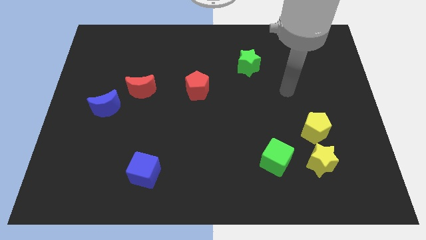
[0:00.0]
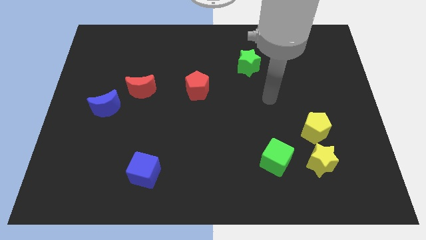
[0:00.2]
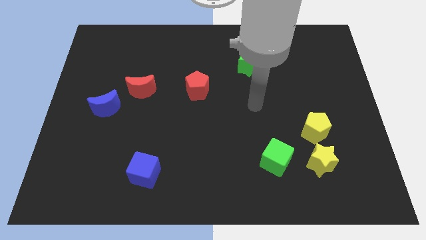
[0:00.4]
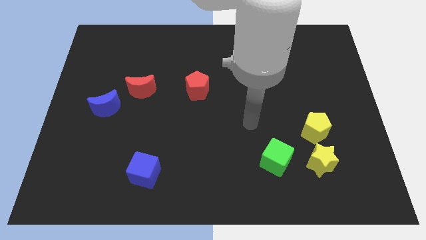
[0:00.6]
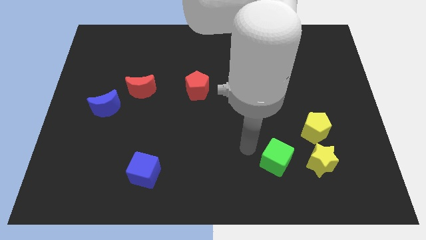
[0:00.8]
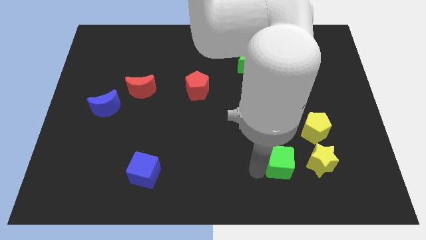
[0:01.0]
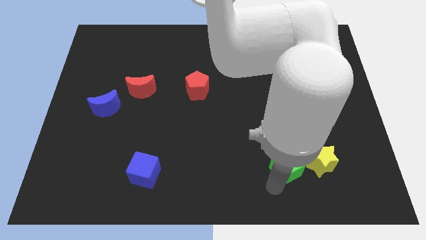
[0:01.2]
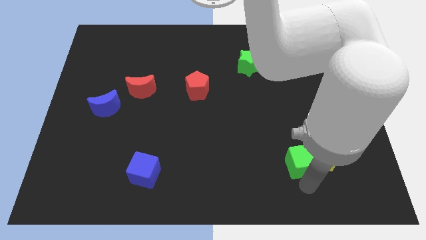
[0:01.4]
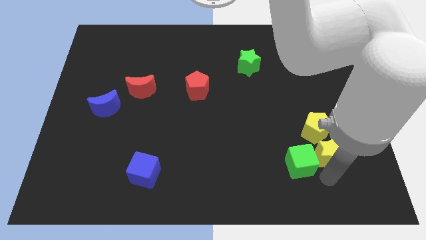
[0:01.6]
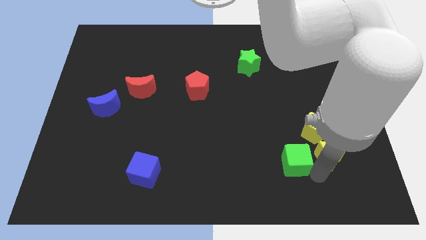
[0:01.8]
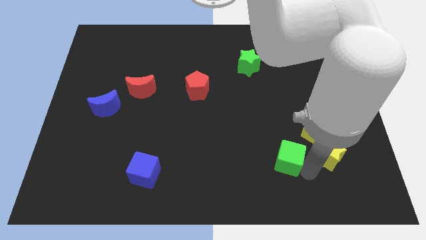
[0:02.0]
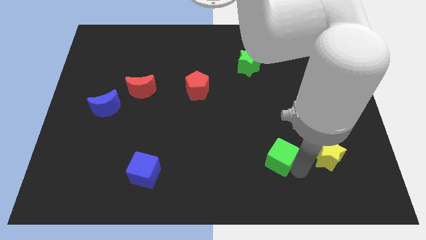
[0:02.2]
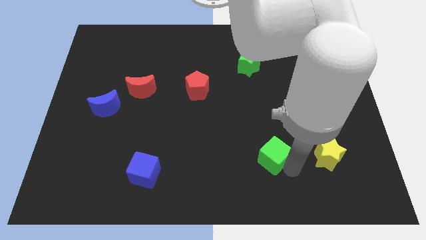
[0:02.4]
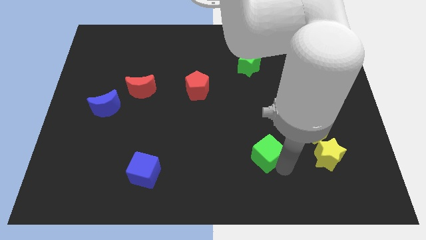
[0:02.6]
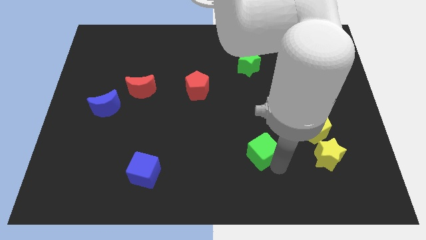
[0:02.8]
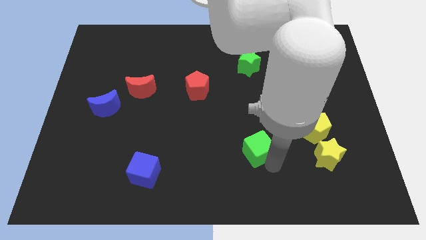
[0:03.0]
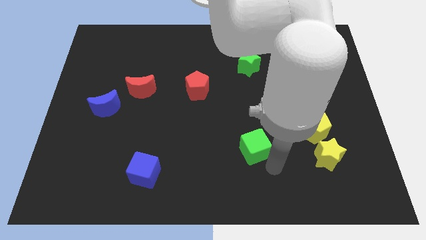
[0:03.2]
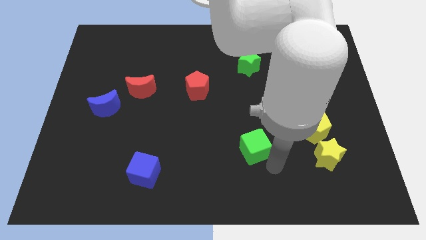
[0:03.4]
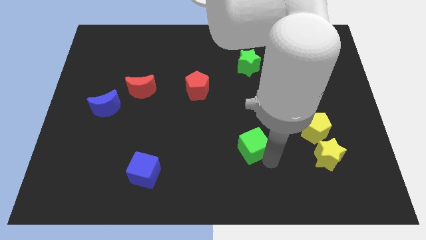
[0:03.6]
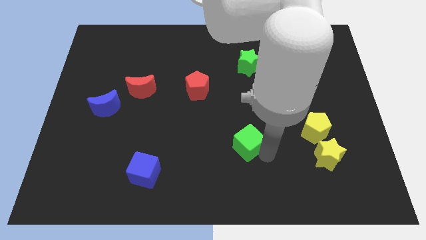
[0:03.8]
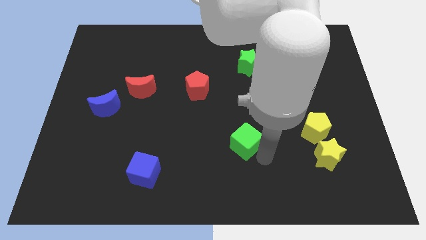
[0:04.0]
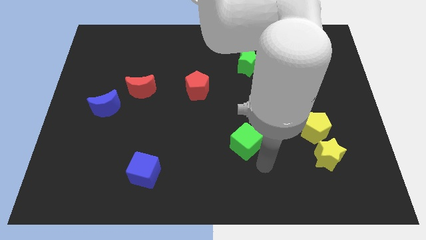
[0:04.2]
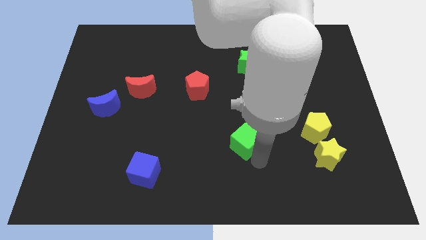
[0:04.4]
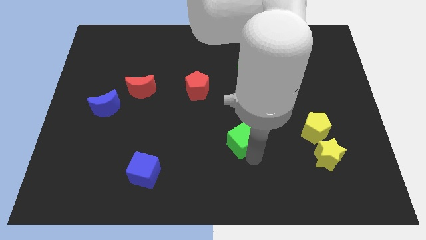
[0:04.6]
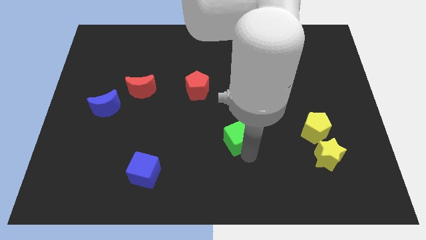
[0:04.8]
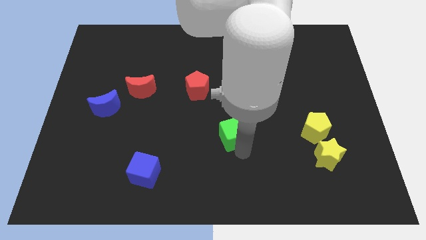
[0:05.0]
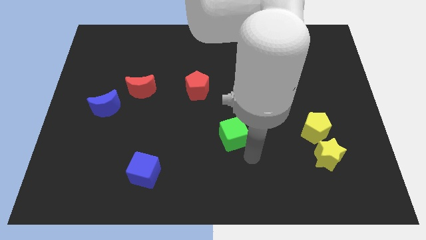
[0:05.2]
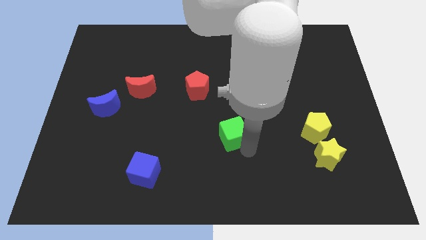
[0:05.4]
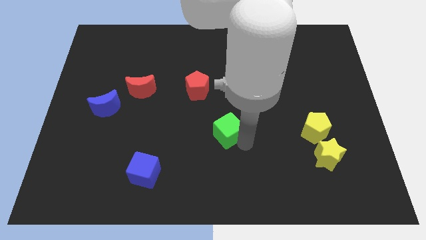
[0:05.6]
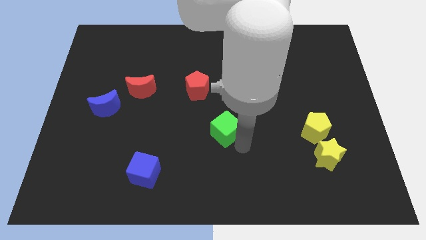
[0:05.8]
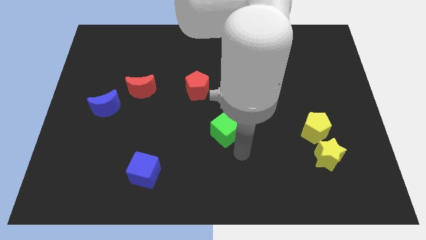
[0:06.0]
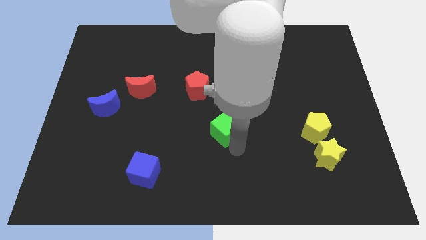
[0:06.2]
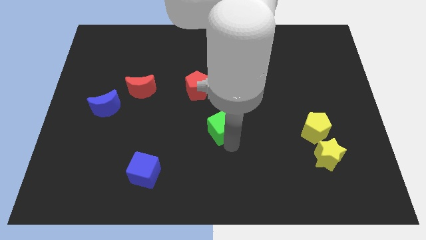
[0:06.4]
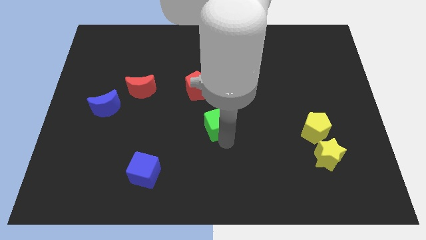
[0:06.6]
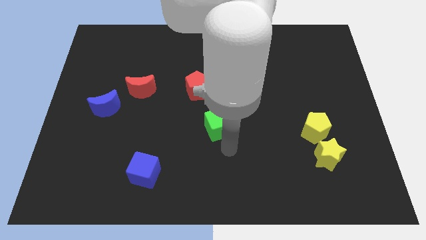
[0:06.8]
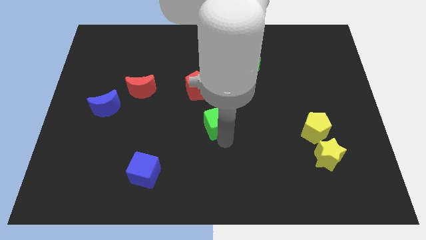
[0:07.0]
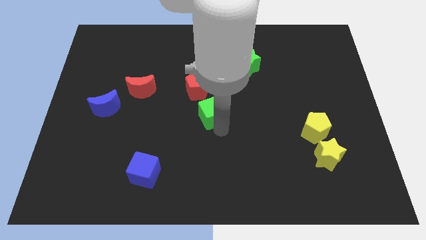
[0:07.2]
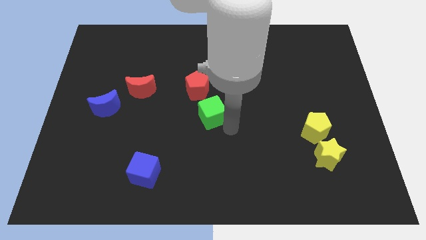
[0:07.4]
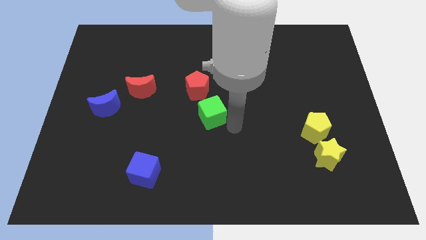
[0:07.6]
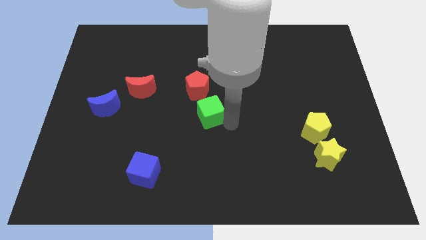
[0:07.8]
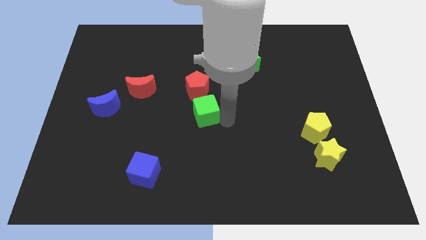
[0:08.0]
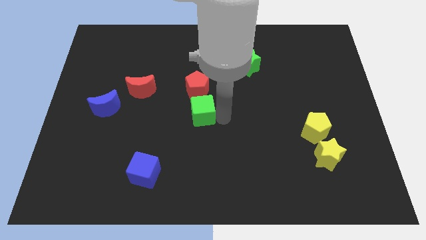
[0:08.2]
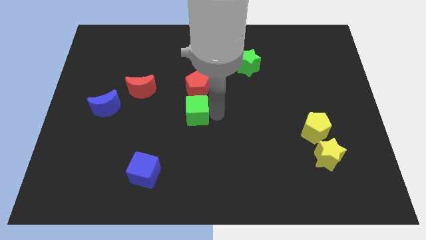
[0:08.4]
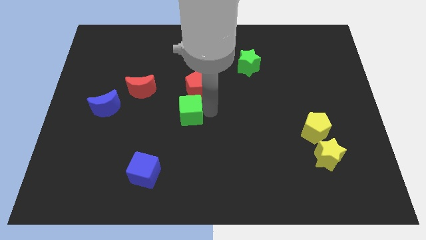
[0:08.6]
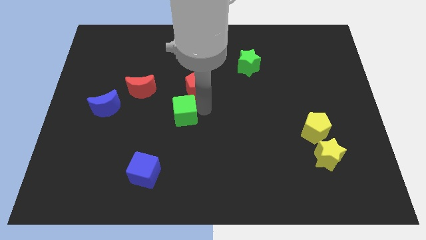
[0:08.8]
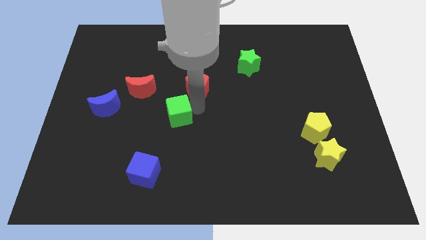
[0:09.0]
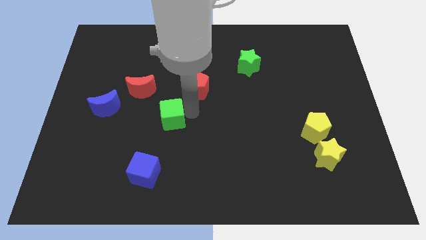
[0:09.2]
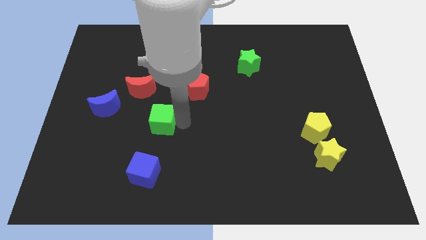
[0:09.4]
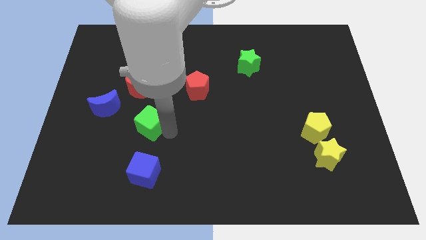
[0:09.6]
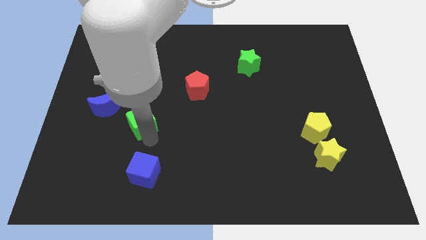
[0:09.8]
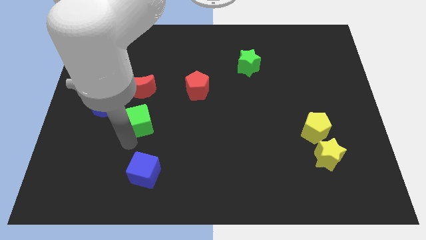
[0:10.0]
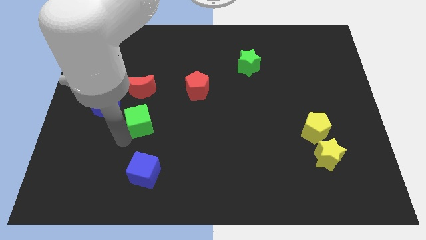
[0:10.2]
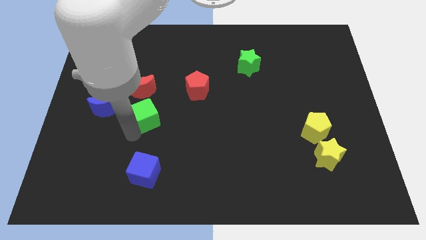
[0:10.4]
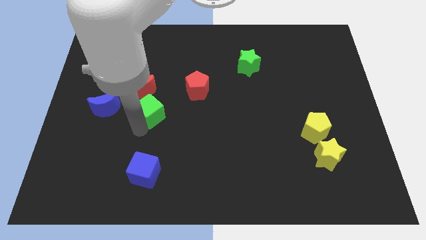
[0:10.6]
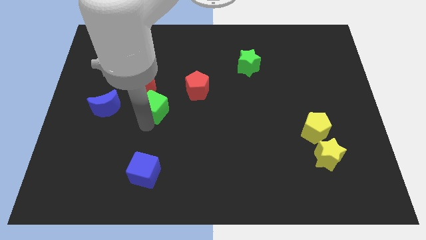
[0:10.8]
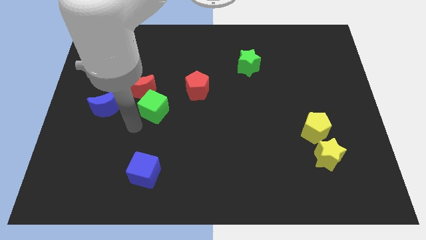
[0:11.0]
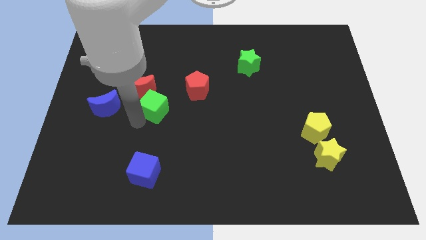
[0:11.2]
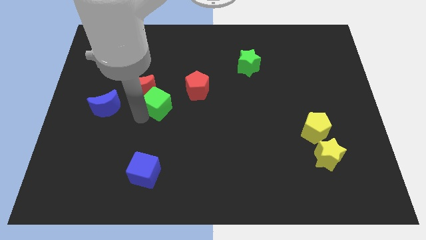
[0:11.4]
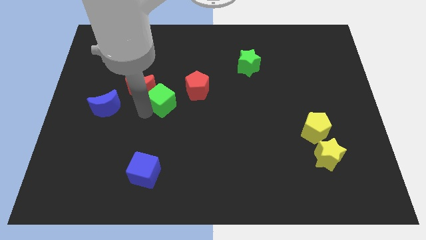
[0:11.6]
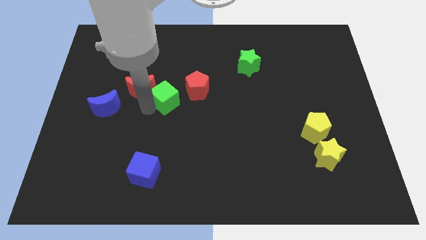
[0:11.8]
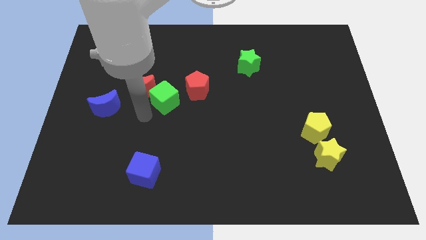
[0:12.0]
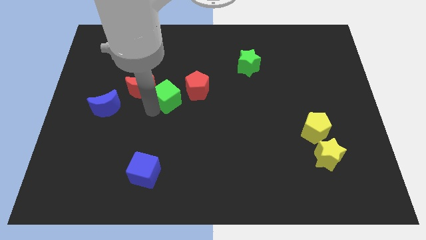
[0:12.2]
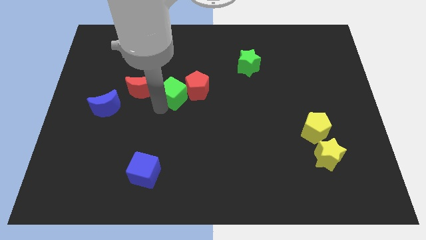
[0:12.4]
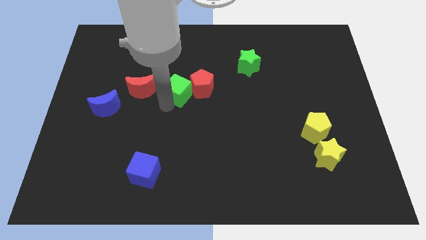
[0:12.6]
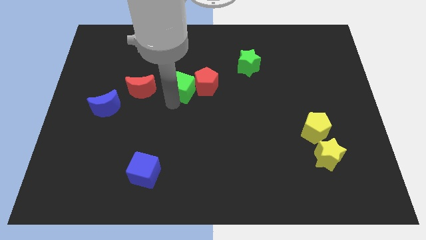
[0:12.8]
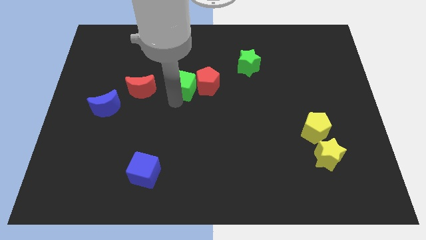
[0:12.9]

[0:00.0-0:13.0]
put the green cube to the top left of the red pentagon

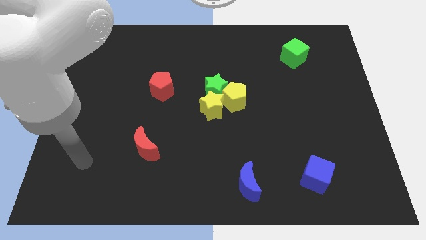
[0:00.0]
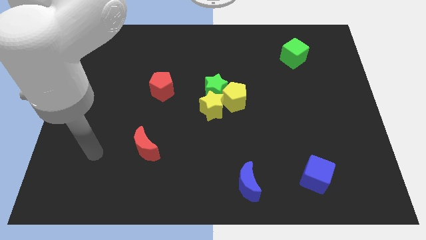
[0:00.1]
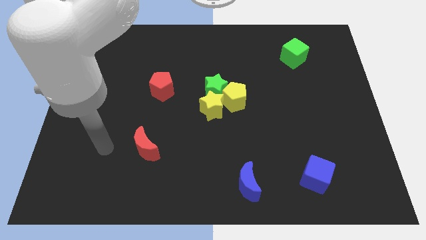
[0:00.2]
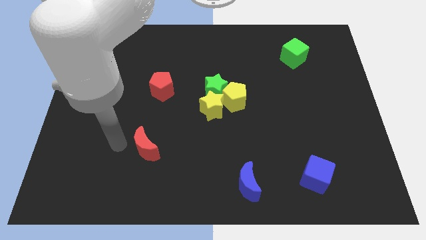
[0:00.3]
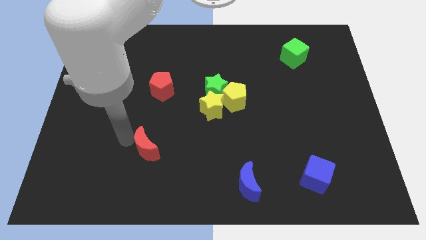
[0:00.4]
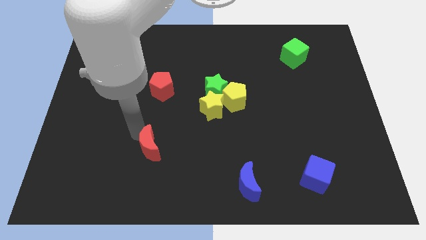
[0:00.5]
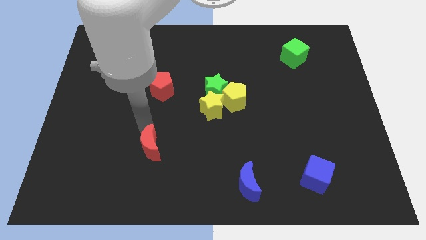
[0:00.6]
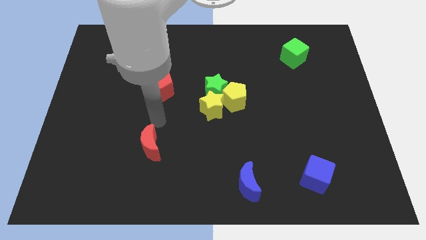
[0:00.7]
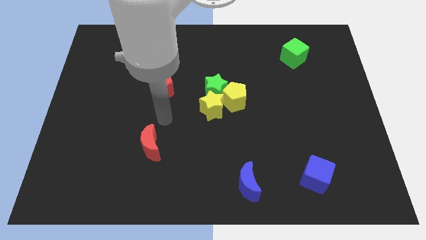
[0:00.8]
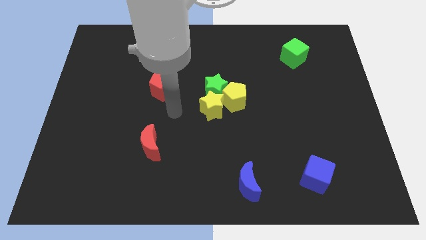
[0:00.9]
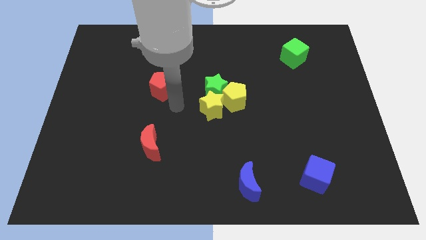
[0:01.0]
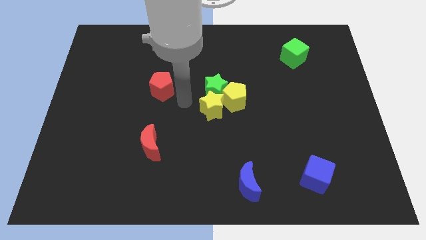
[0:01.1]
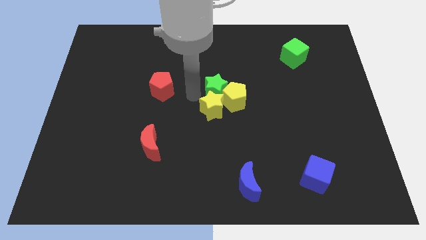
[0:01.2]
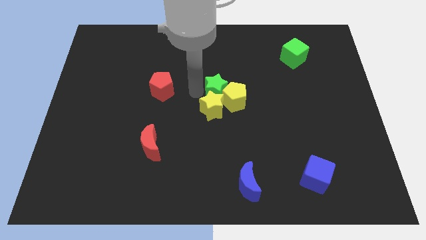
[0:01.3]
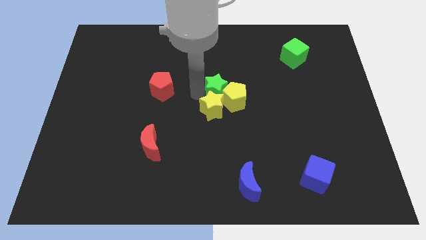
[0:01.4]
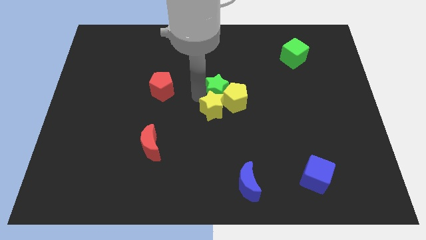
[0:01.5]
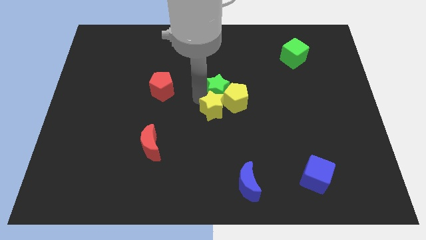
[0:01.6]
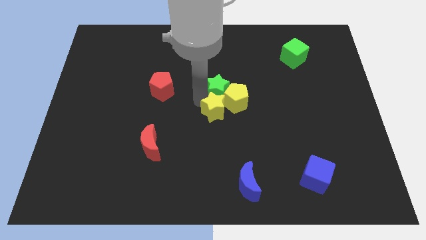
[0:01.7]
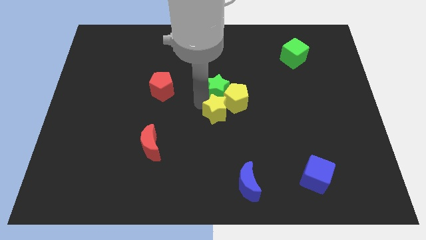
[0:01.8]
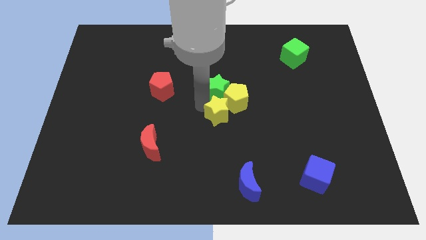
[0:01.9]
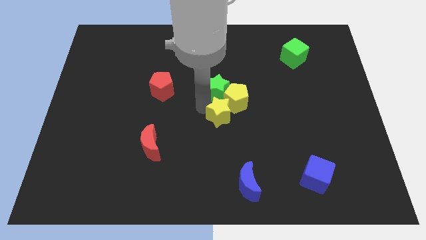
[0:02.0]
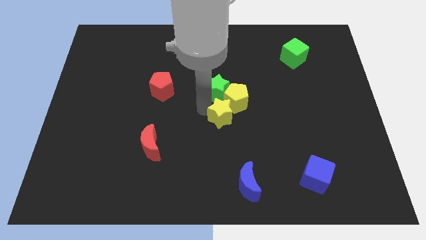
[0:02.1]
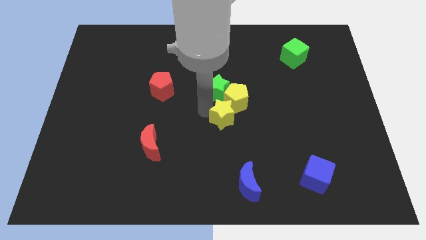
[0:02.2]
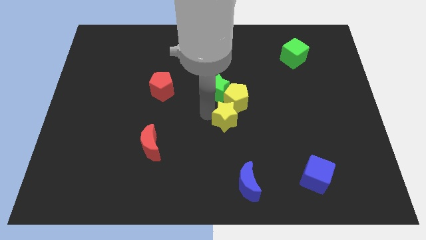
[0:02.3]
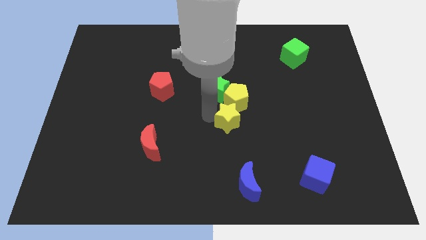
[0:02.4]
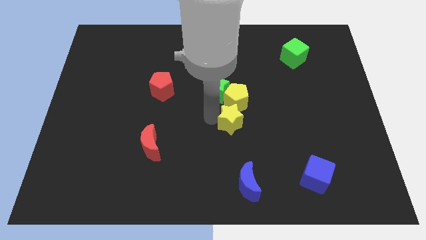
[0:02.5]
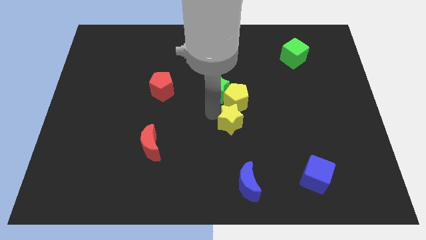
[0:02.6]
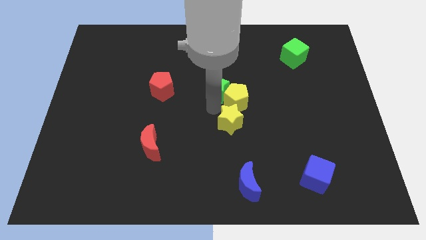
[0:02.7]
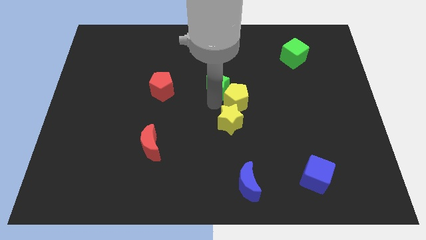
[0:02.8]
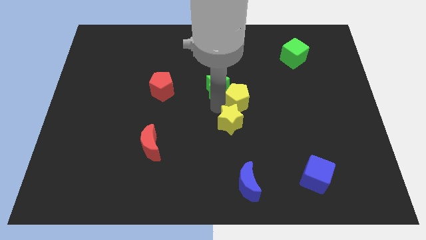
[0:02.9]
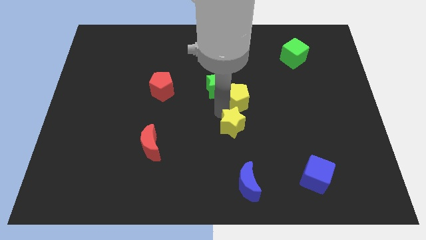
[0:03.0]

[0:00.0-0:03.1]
move the yellow star to the top side of the blue moon
